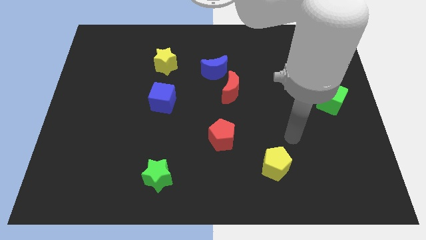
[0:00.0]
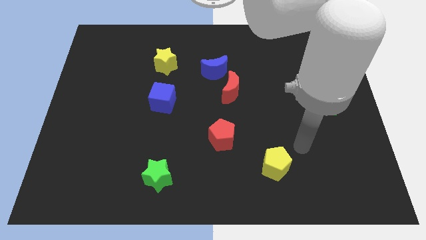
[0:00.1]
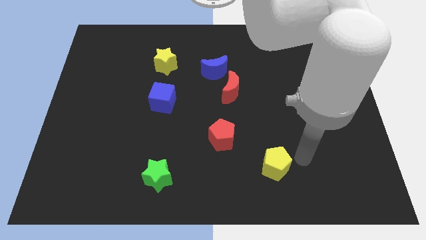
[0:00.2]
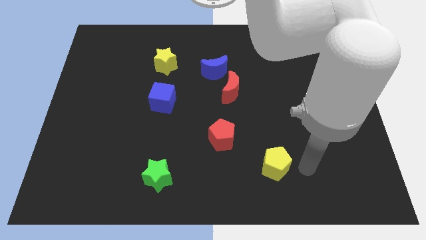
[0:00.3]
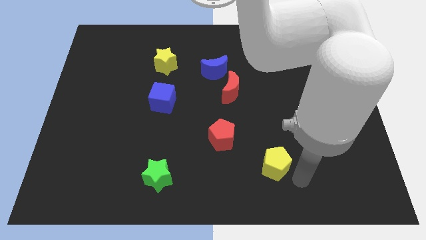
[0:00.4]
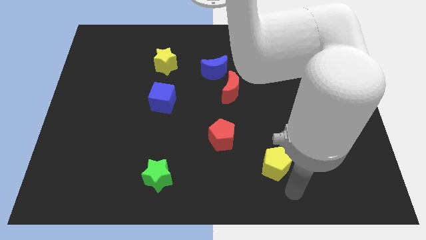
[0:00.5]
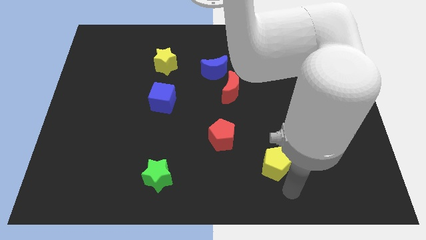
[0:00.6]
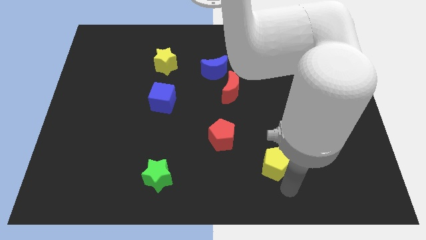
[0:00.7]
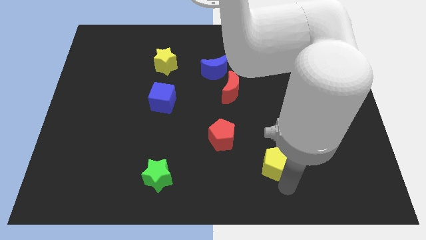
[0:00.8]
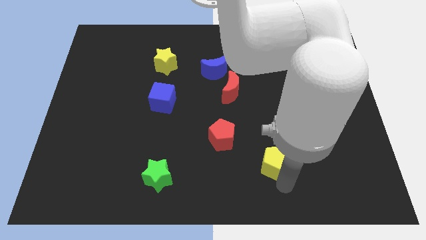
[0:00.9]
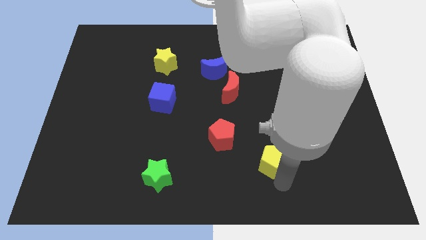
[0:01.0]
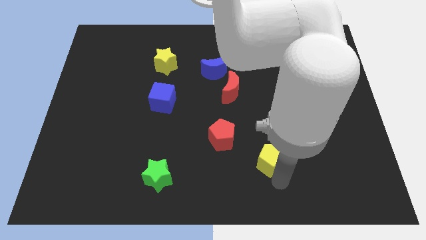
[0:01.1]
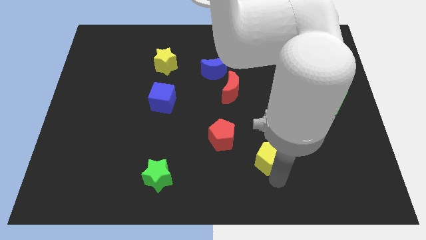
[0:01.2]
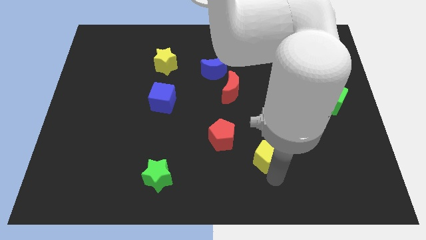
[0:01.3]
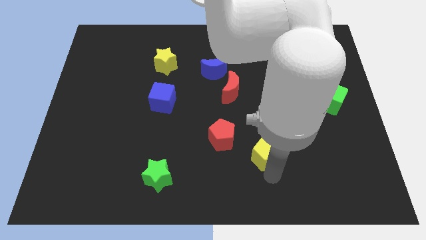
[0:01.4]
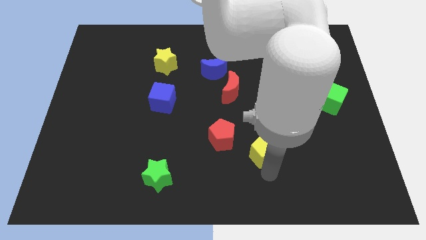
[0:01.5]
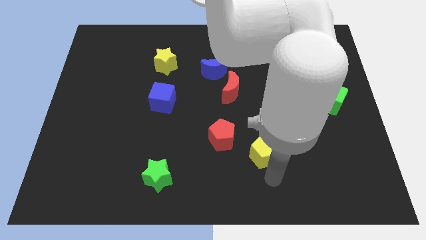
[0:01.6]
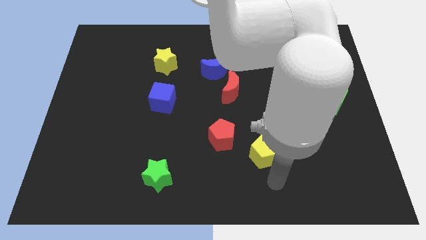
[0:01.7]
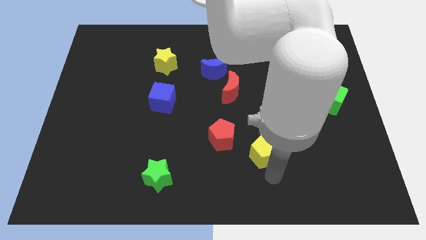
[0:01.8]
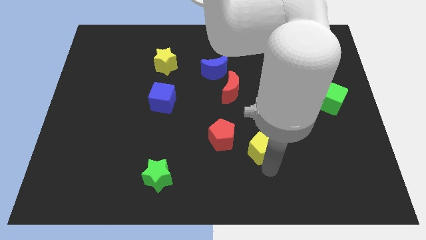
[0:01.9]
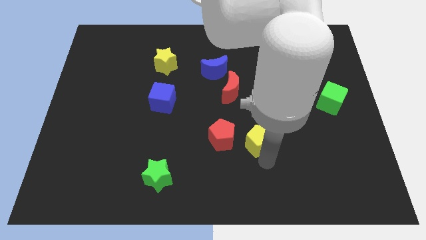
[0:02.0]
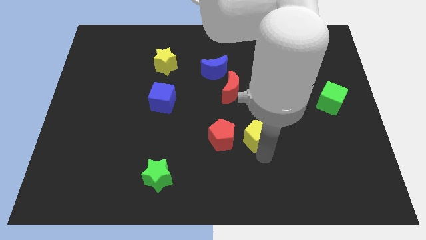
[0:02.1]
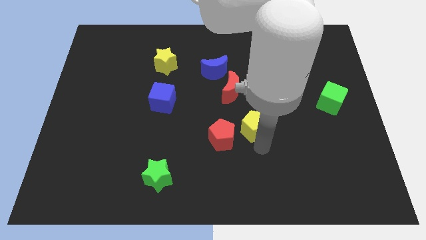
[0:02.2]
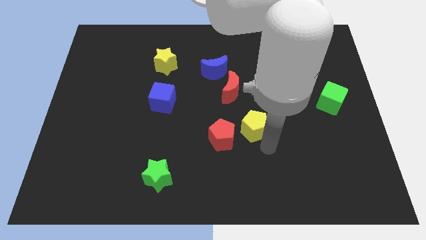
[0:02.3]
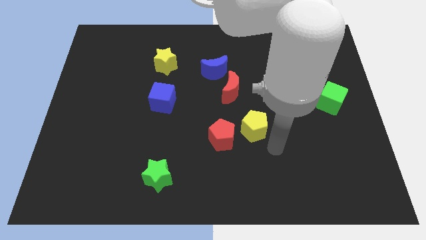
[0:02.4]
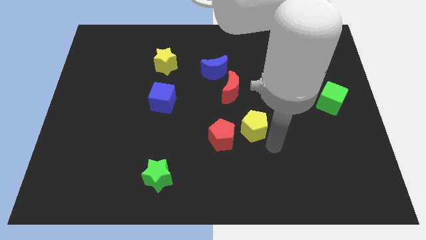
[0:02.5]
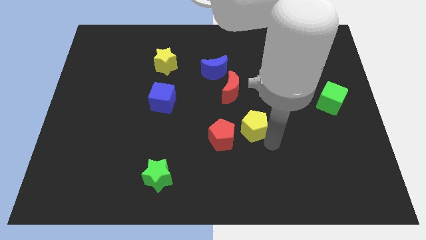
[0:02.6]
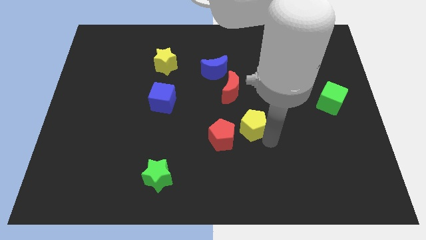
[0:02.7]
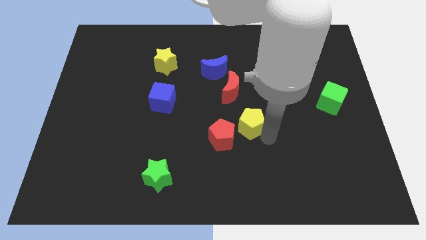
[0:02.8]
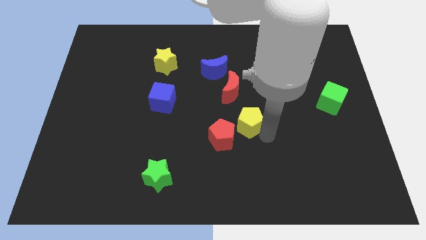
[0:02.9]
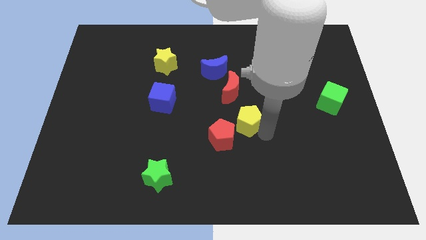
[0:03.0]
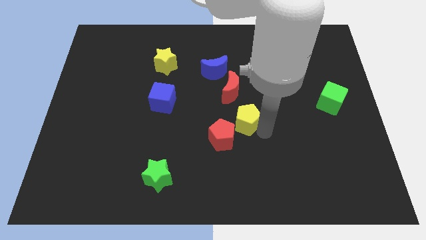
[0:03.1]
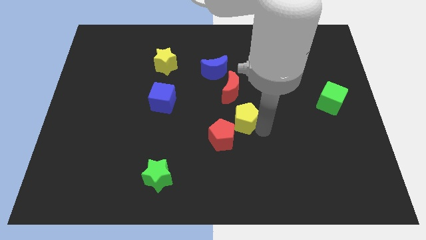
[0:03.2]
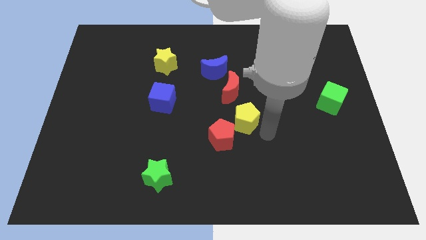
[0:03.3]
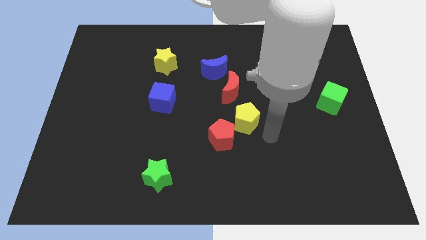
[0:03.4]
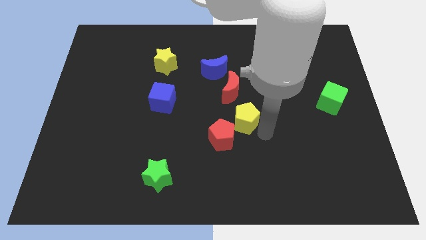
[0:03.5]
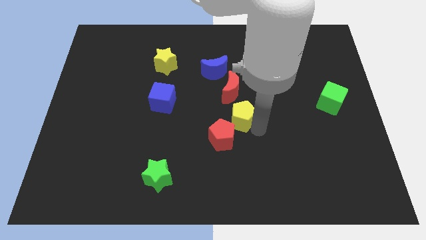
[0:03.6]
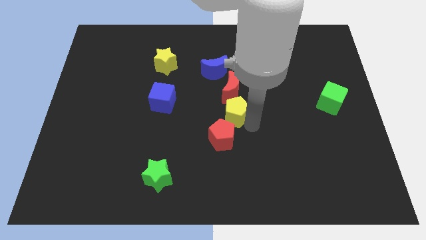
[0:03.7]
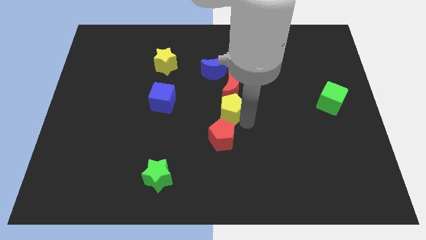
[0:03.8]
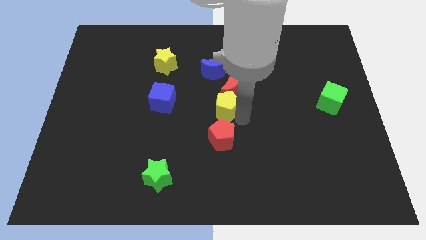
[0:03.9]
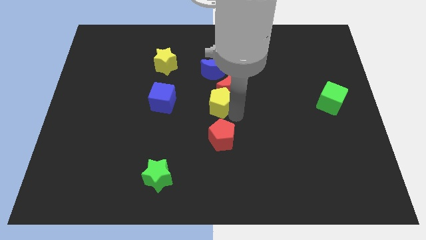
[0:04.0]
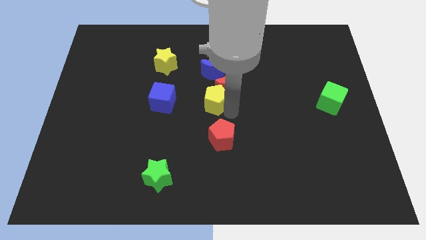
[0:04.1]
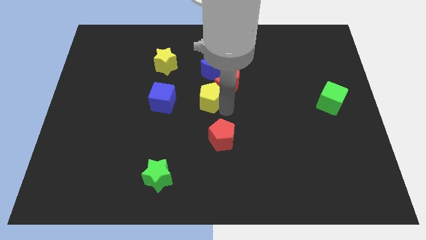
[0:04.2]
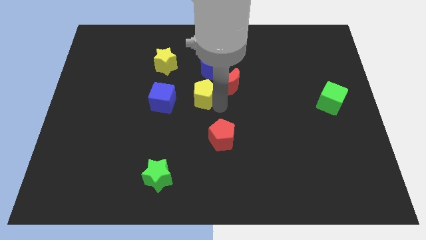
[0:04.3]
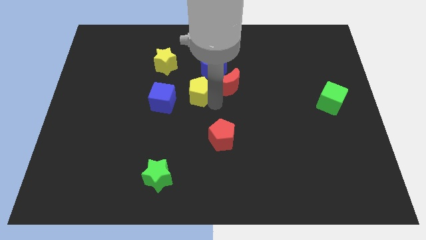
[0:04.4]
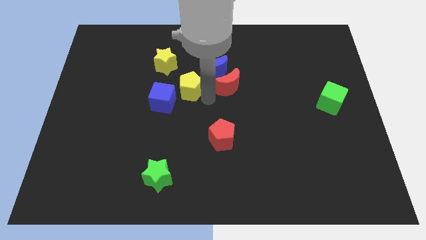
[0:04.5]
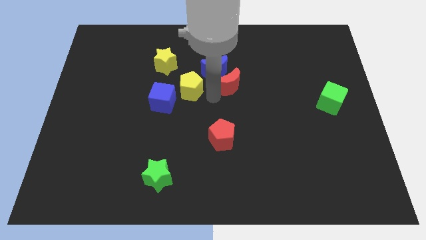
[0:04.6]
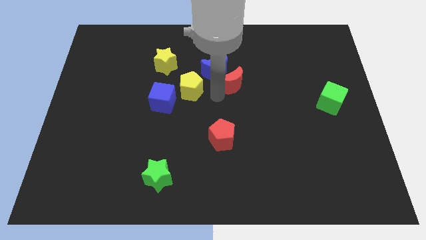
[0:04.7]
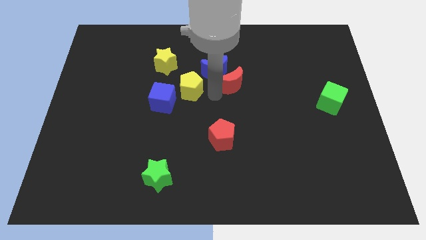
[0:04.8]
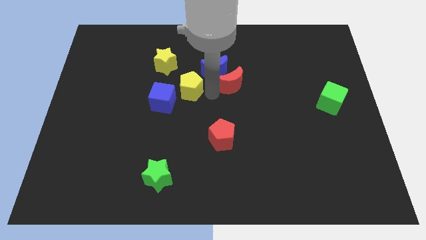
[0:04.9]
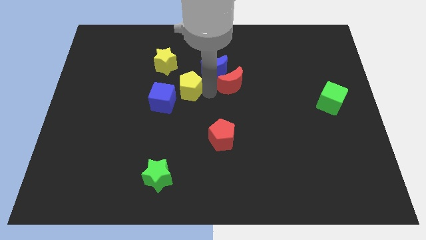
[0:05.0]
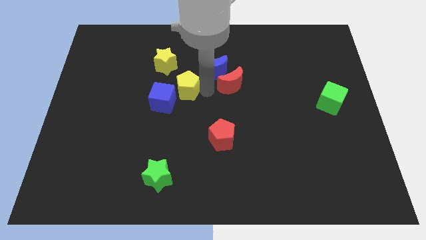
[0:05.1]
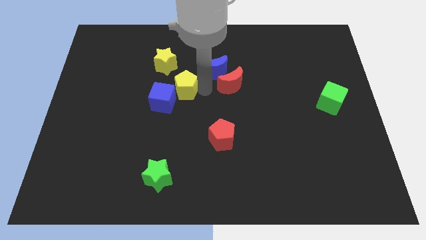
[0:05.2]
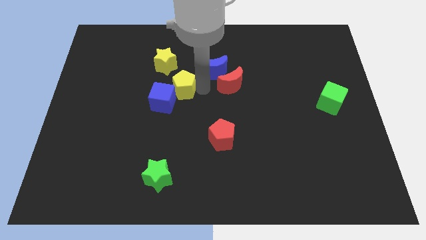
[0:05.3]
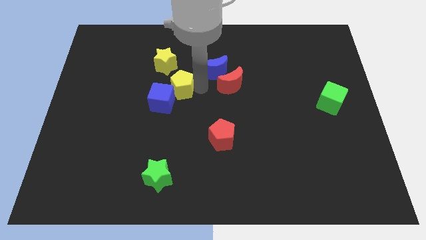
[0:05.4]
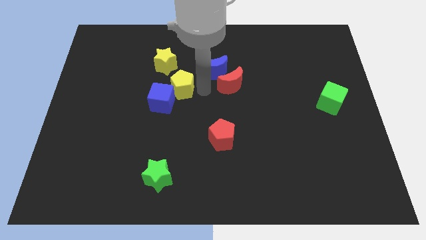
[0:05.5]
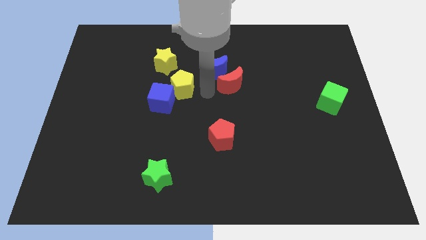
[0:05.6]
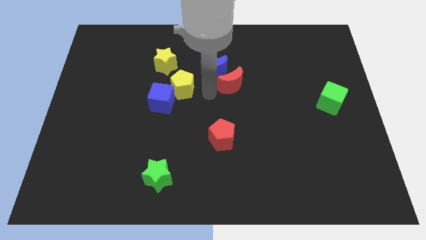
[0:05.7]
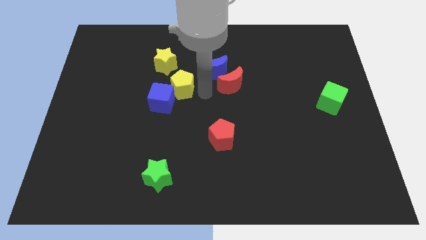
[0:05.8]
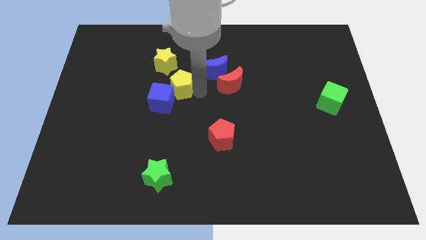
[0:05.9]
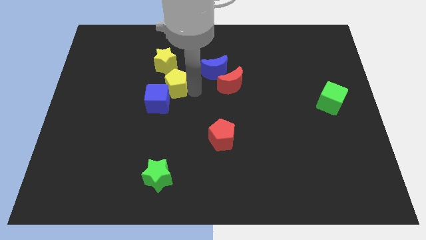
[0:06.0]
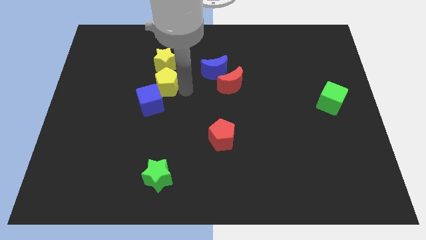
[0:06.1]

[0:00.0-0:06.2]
push the yellow pentagon to the left side of the blue moon

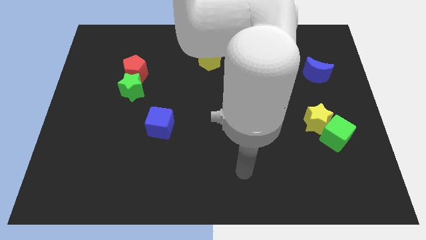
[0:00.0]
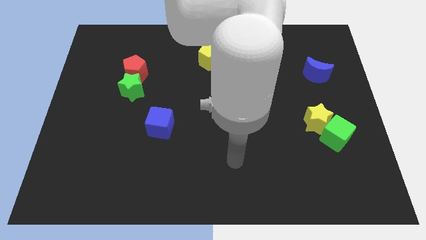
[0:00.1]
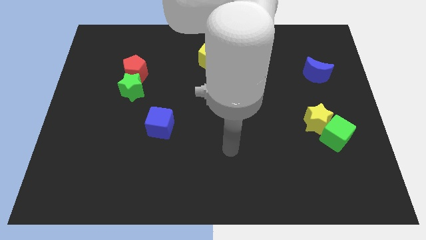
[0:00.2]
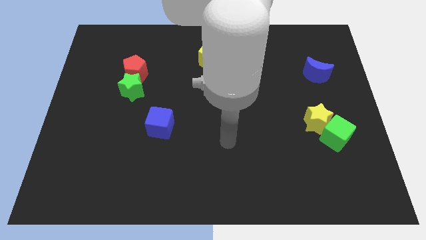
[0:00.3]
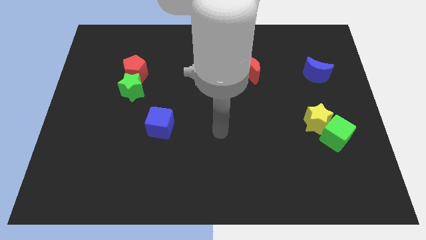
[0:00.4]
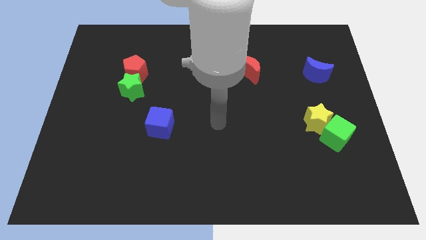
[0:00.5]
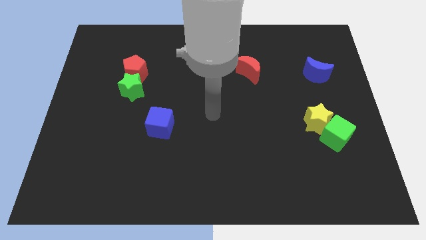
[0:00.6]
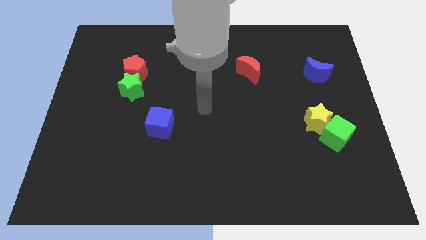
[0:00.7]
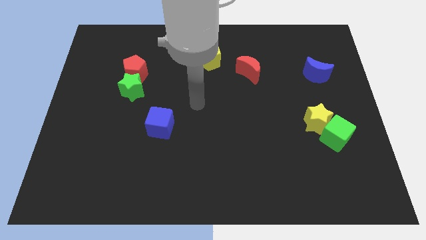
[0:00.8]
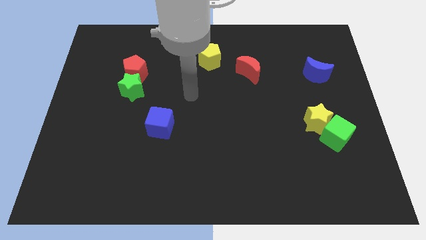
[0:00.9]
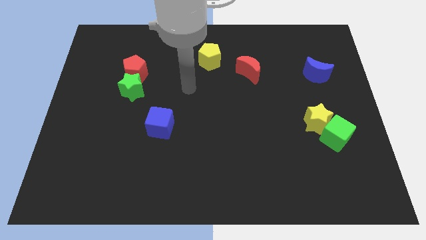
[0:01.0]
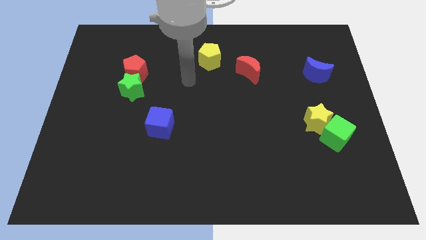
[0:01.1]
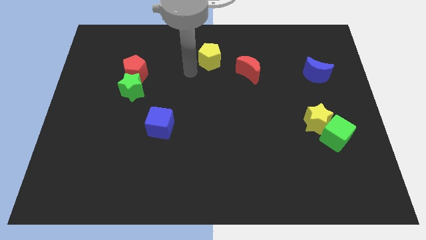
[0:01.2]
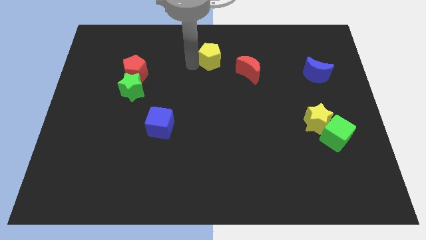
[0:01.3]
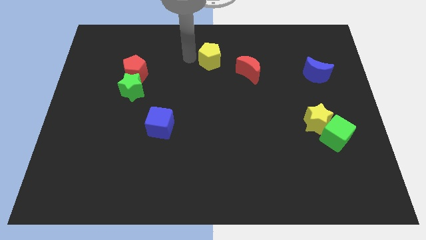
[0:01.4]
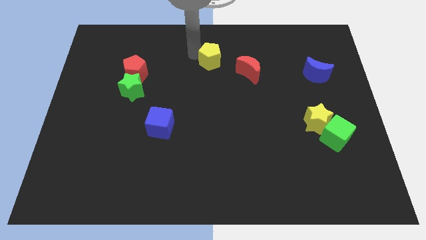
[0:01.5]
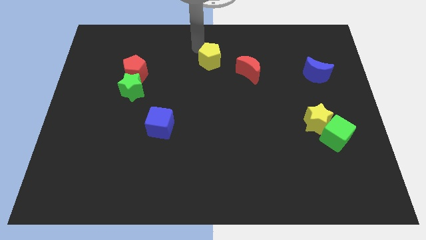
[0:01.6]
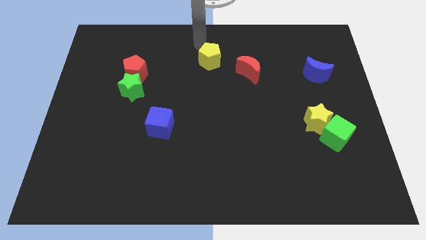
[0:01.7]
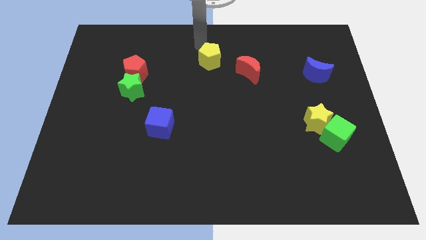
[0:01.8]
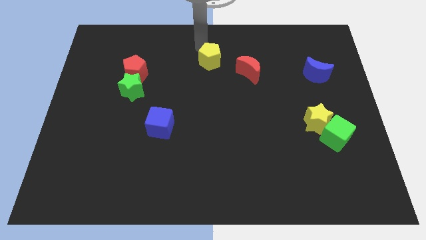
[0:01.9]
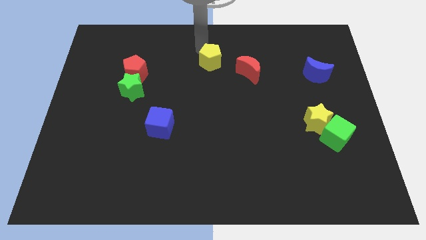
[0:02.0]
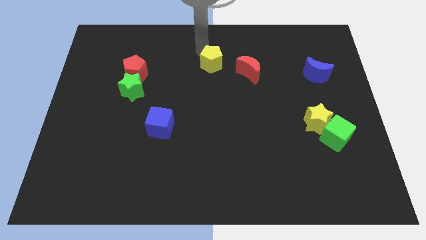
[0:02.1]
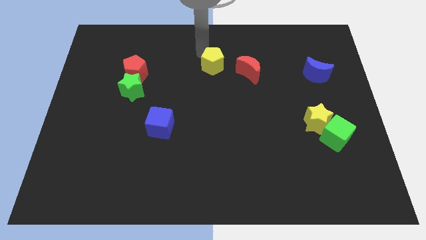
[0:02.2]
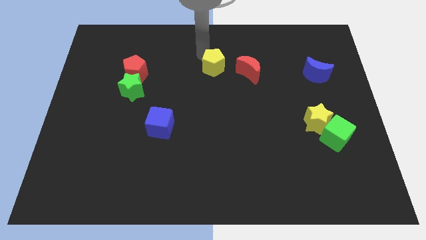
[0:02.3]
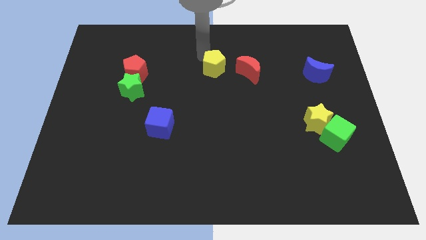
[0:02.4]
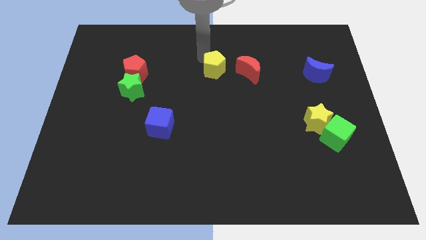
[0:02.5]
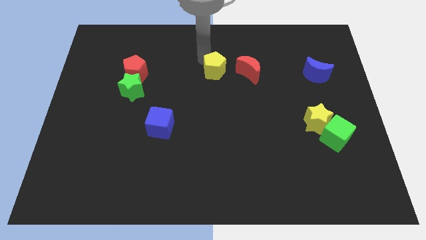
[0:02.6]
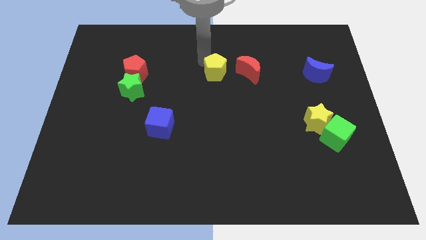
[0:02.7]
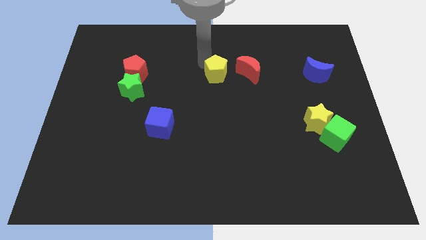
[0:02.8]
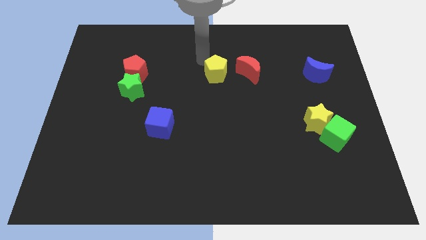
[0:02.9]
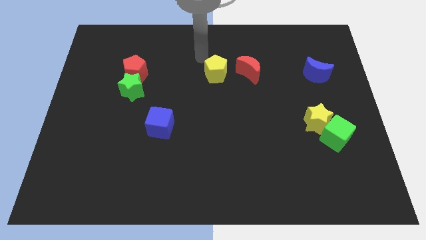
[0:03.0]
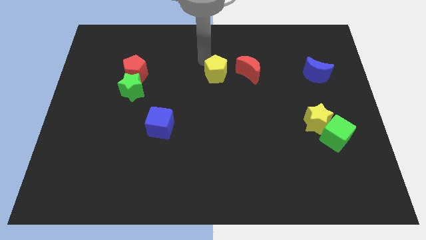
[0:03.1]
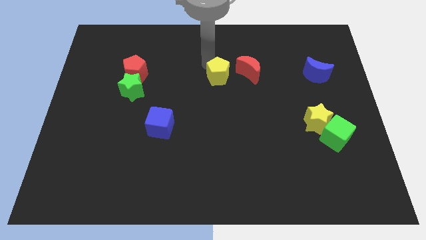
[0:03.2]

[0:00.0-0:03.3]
put the yellow pentagon diagonally down and to the left of the red moon
